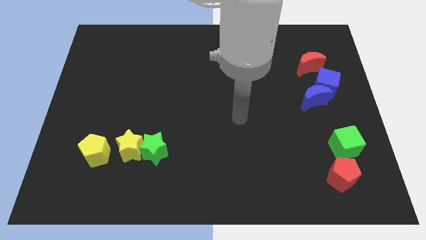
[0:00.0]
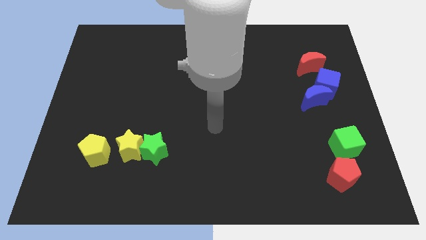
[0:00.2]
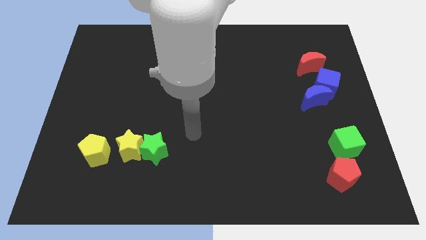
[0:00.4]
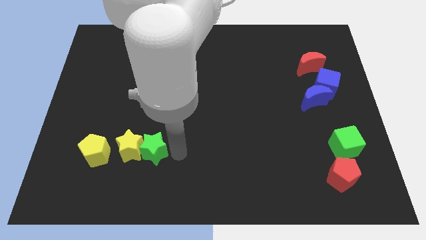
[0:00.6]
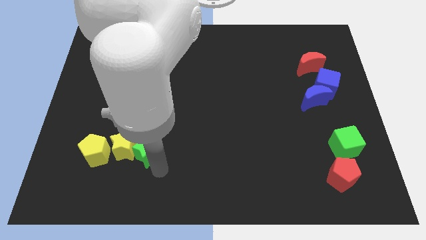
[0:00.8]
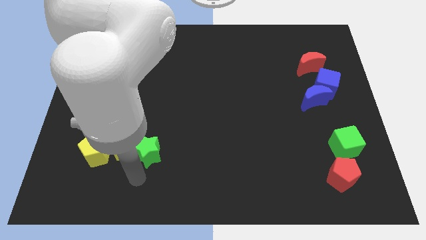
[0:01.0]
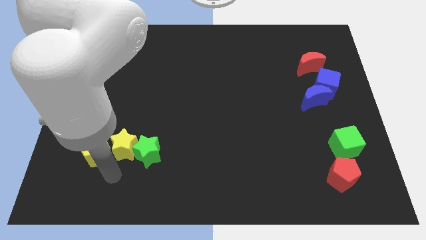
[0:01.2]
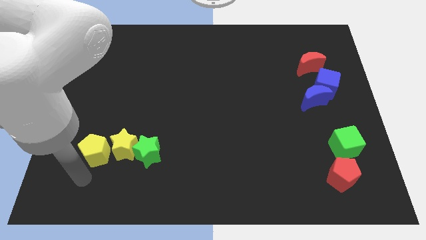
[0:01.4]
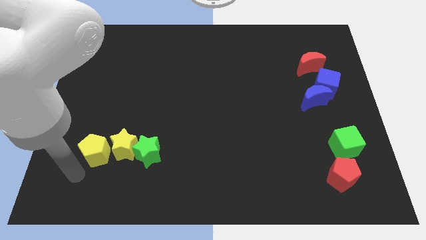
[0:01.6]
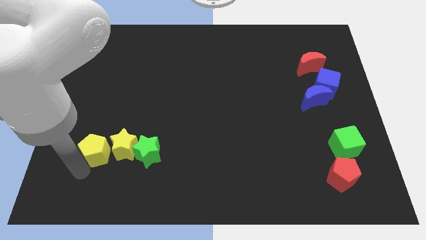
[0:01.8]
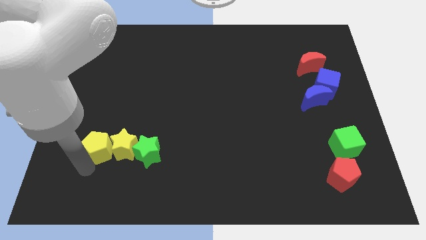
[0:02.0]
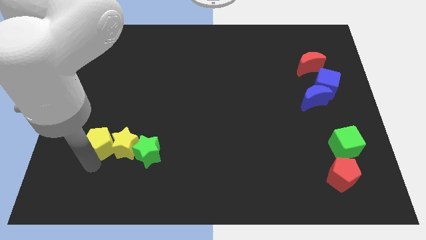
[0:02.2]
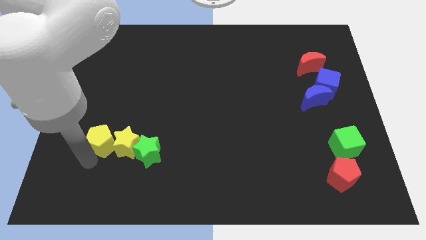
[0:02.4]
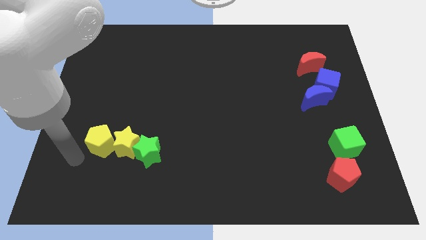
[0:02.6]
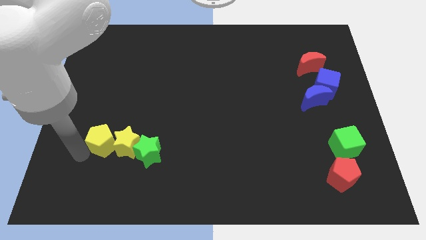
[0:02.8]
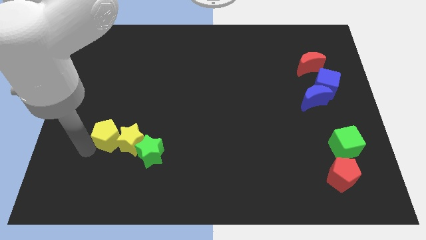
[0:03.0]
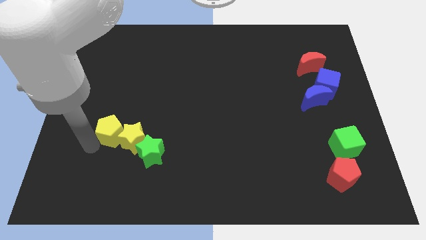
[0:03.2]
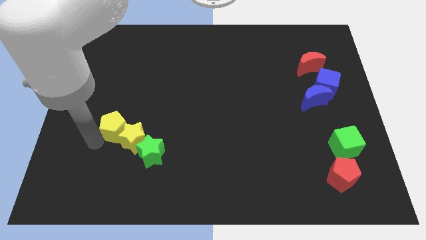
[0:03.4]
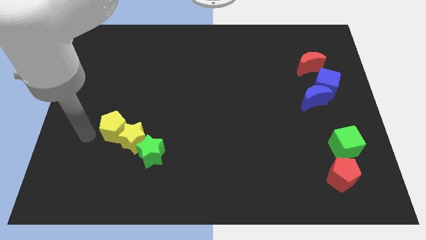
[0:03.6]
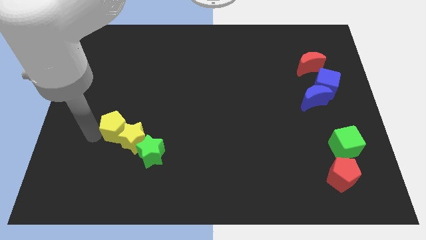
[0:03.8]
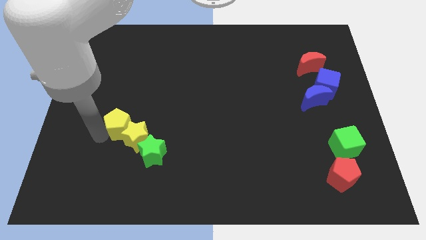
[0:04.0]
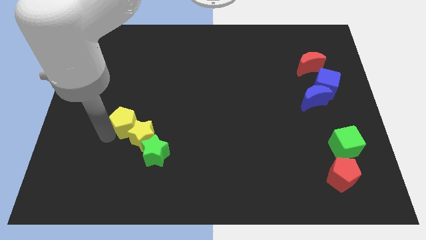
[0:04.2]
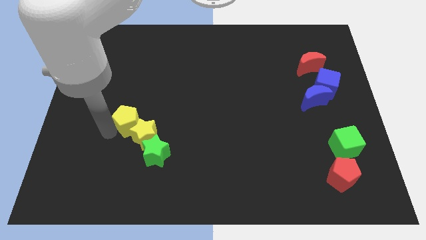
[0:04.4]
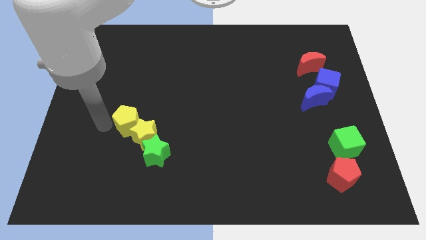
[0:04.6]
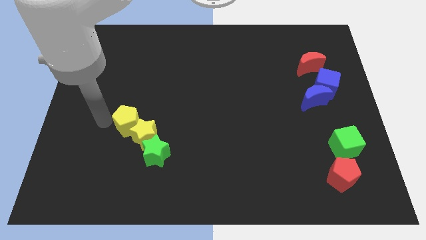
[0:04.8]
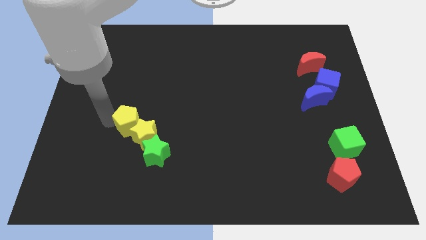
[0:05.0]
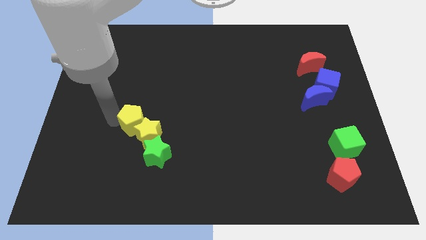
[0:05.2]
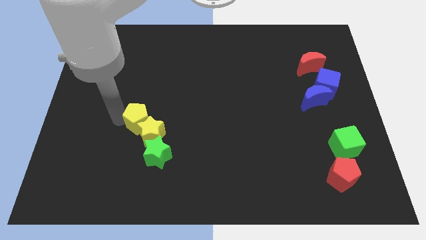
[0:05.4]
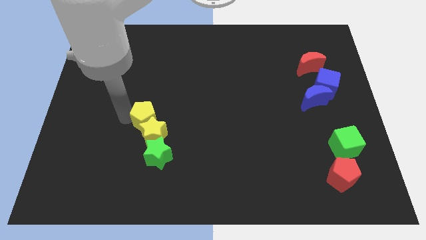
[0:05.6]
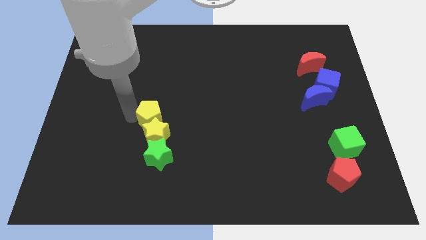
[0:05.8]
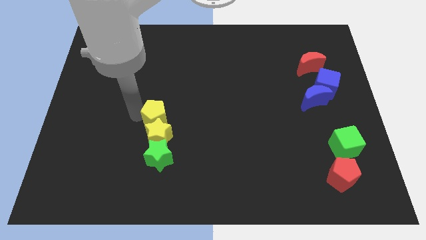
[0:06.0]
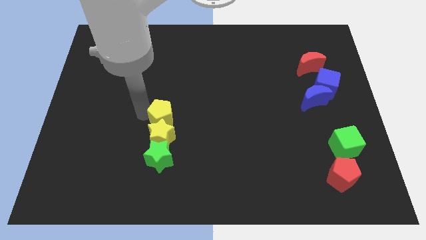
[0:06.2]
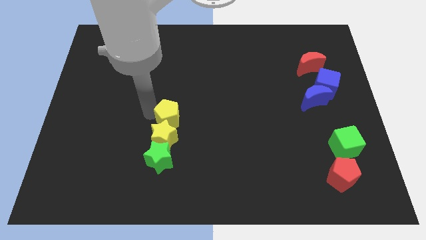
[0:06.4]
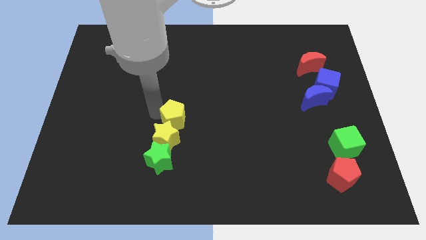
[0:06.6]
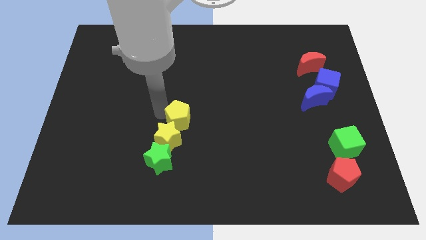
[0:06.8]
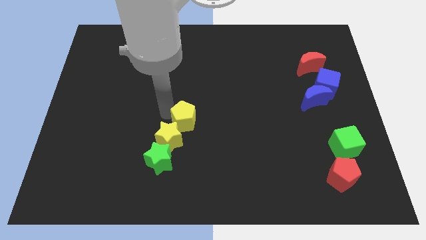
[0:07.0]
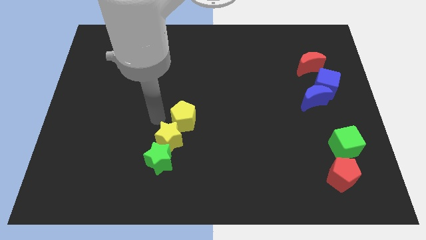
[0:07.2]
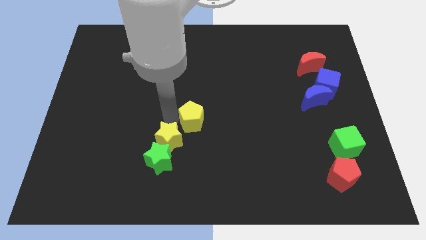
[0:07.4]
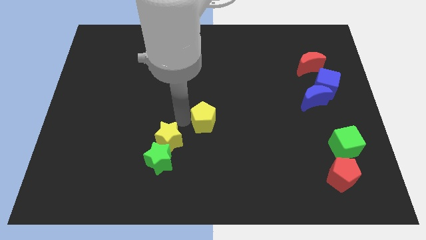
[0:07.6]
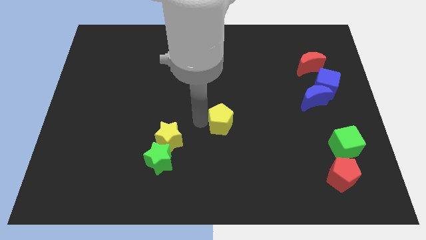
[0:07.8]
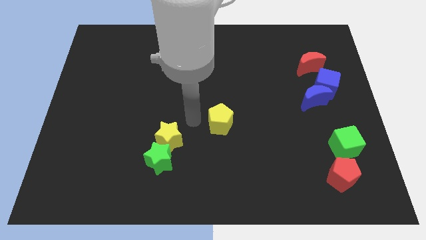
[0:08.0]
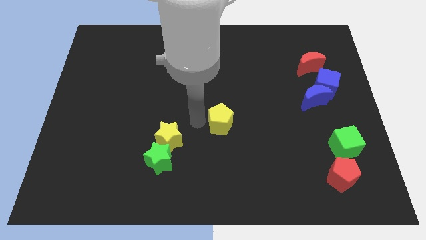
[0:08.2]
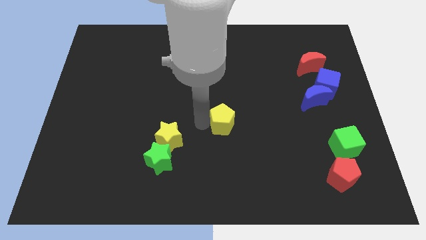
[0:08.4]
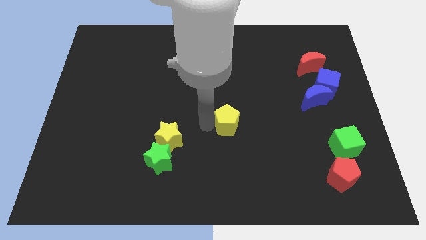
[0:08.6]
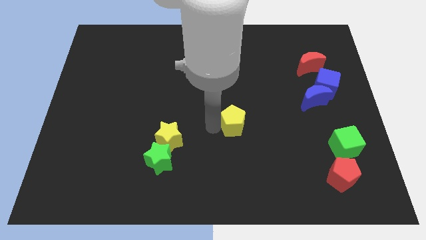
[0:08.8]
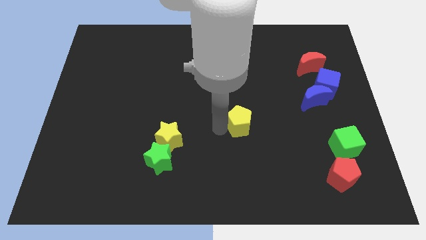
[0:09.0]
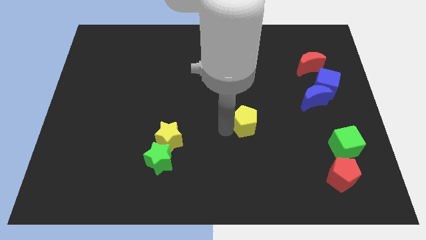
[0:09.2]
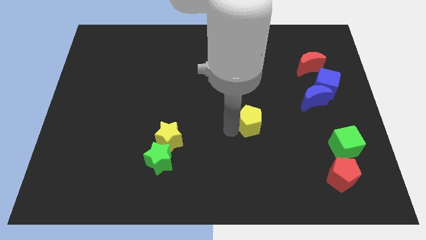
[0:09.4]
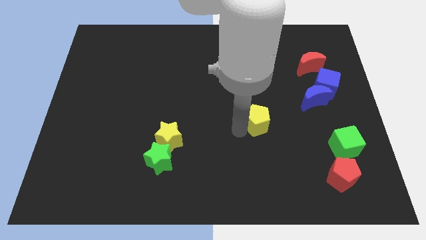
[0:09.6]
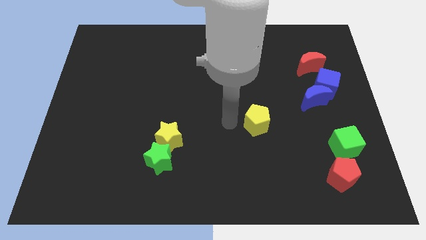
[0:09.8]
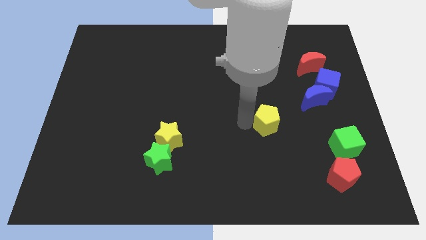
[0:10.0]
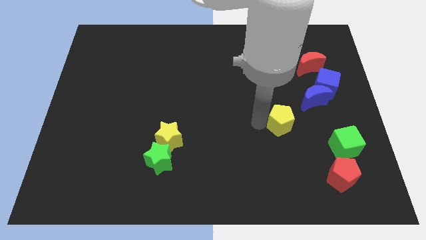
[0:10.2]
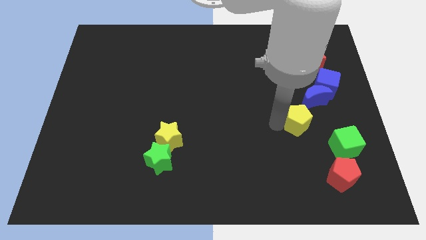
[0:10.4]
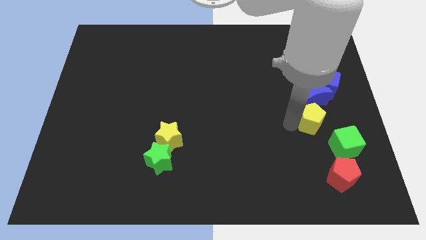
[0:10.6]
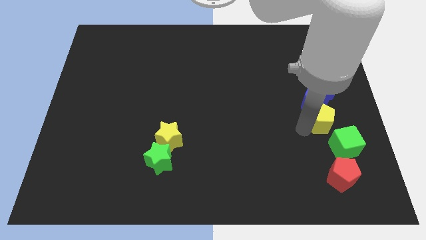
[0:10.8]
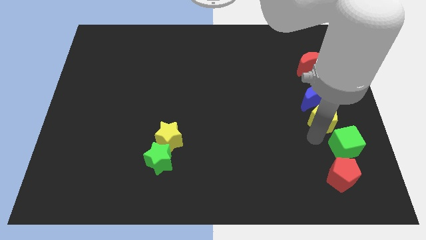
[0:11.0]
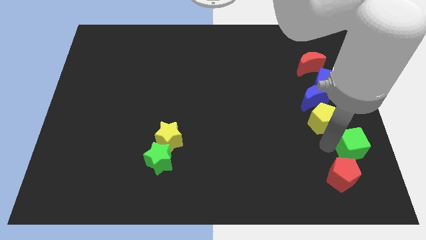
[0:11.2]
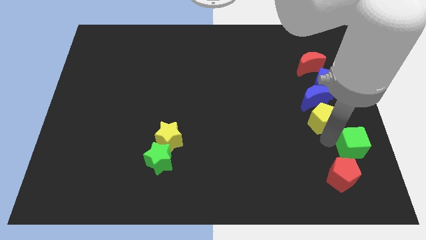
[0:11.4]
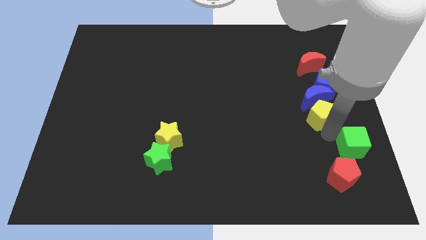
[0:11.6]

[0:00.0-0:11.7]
move the yellow pentagon to the bottom of the red moon

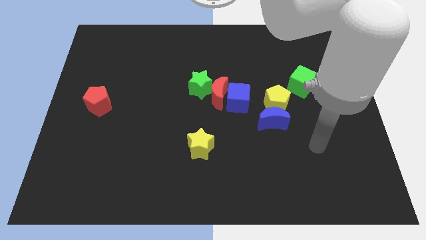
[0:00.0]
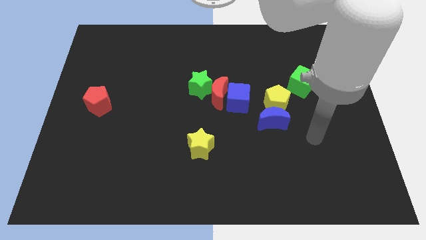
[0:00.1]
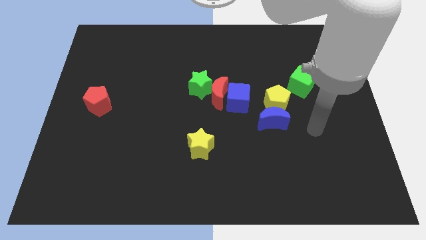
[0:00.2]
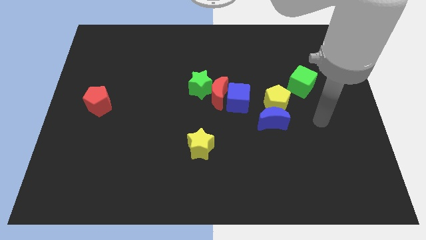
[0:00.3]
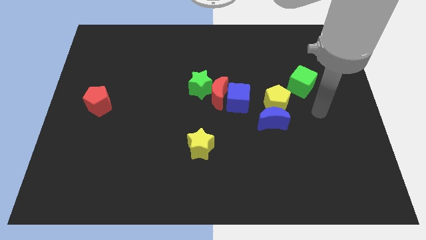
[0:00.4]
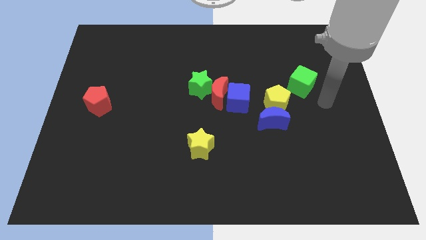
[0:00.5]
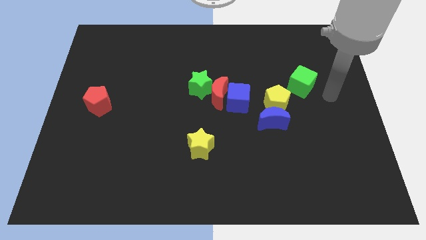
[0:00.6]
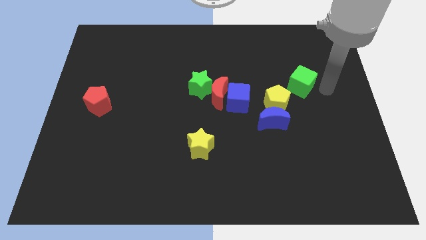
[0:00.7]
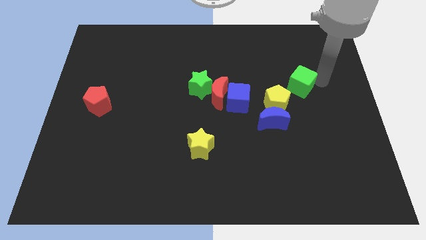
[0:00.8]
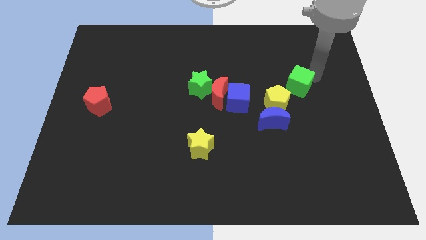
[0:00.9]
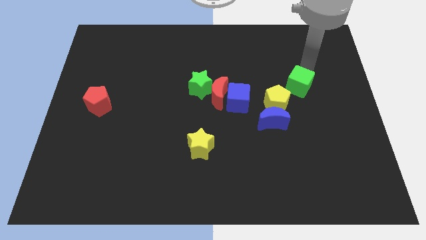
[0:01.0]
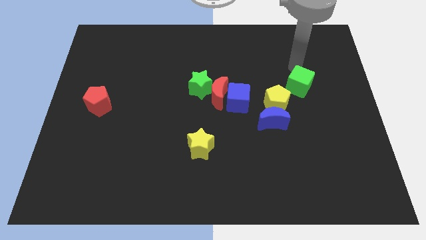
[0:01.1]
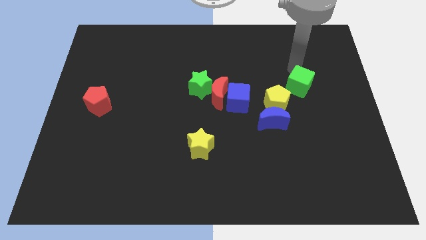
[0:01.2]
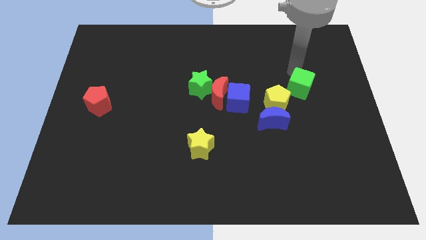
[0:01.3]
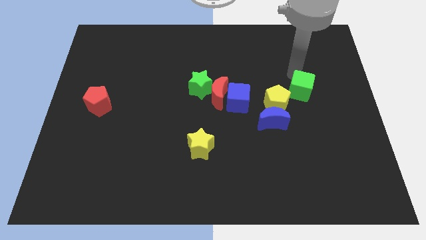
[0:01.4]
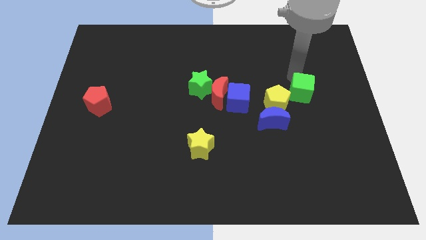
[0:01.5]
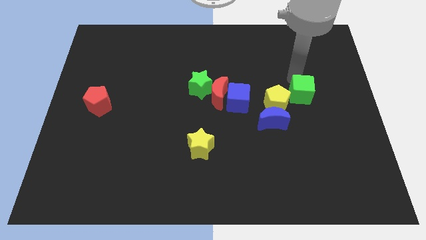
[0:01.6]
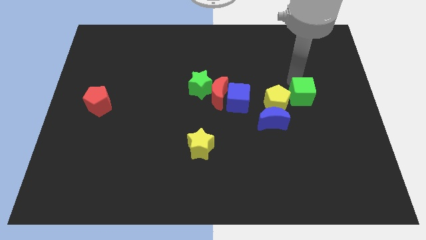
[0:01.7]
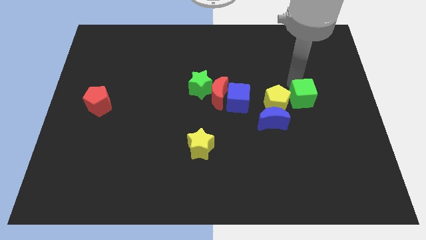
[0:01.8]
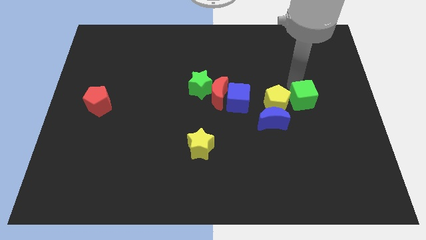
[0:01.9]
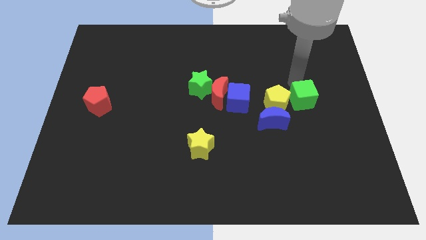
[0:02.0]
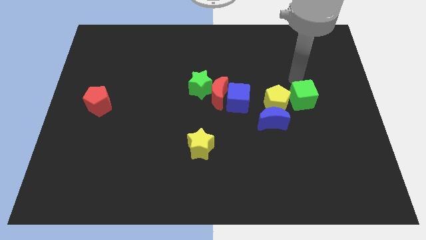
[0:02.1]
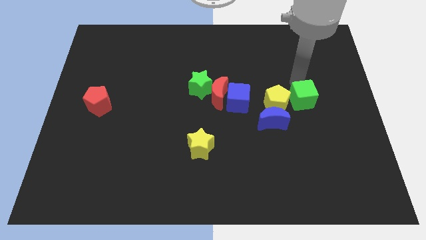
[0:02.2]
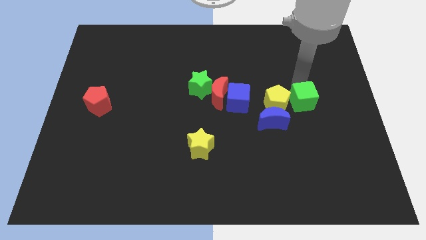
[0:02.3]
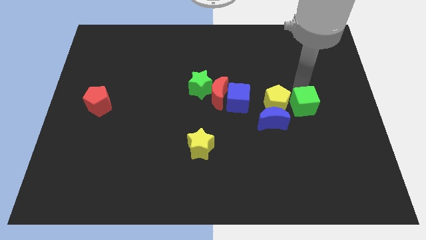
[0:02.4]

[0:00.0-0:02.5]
move the green cube to the right side of the blue moon
